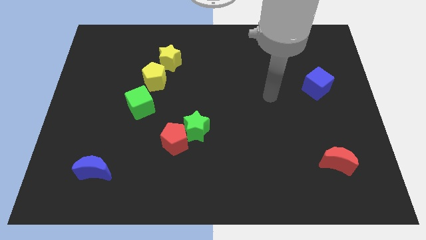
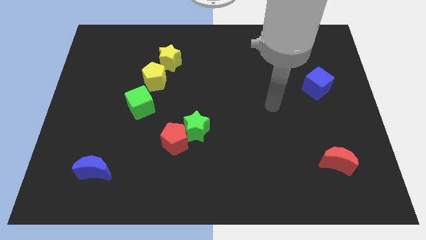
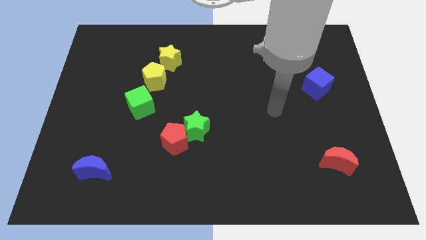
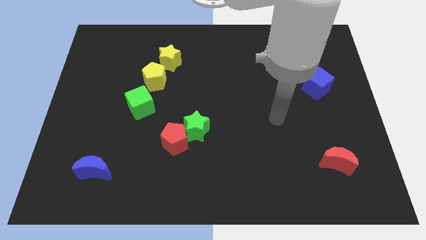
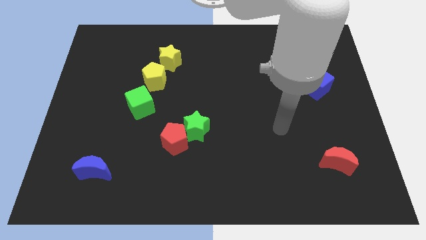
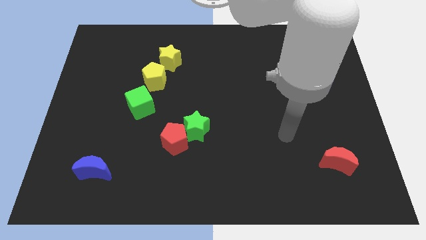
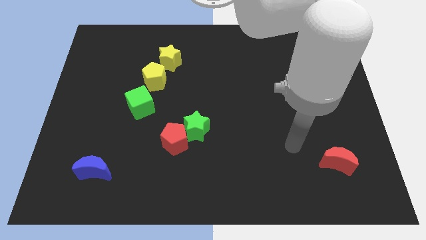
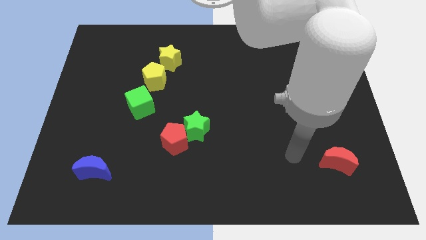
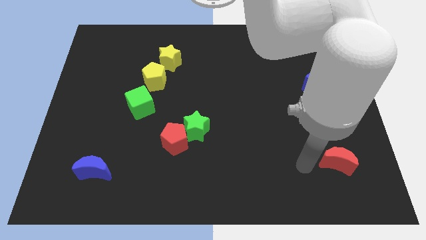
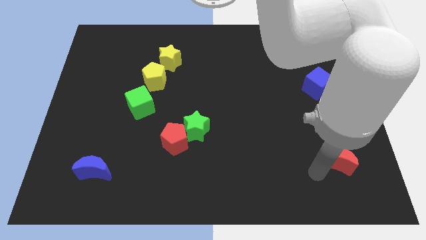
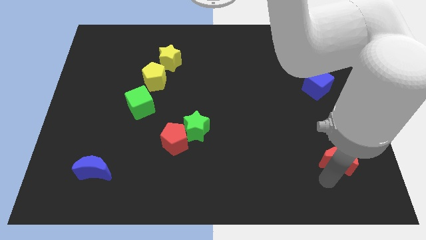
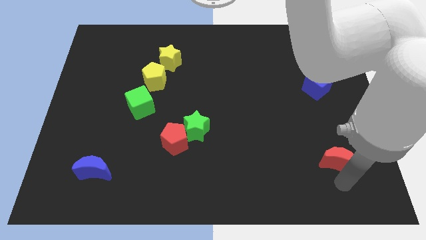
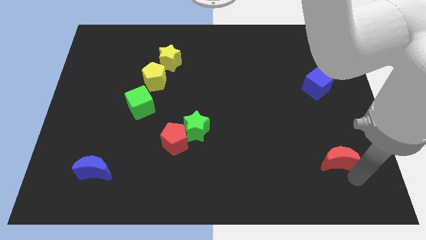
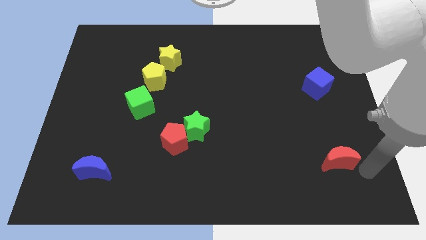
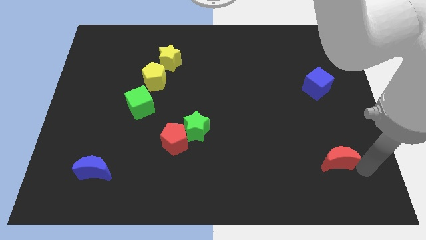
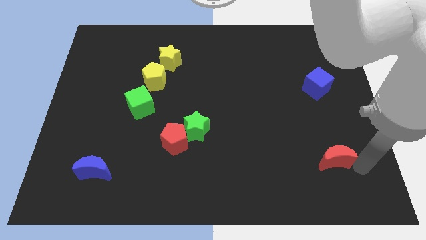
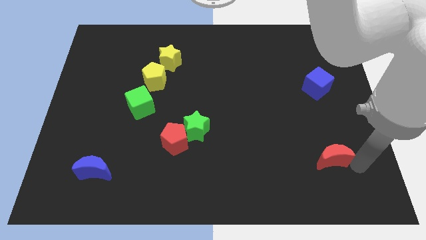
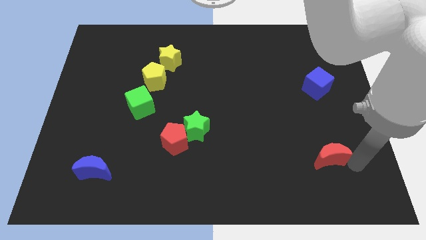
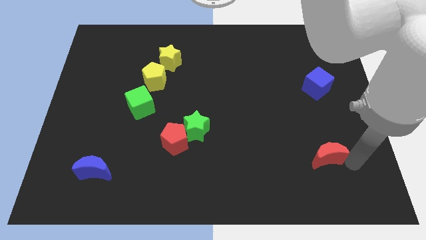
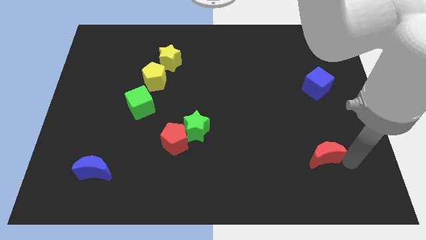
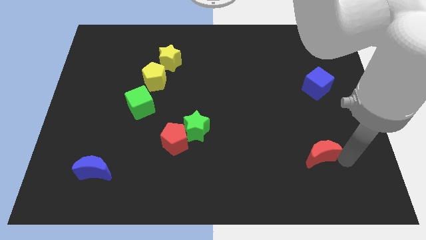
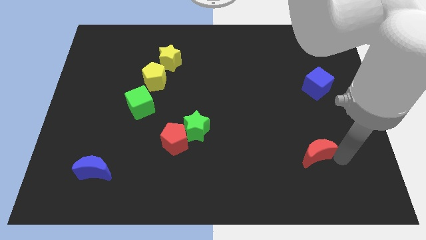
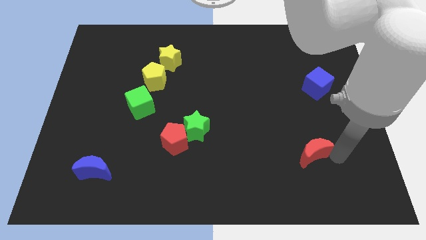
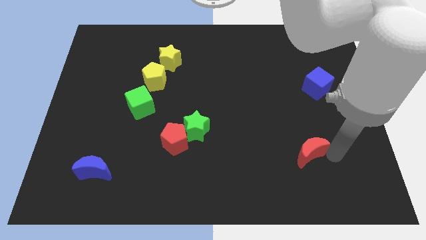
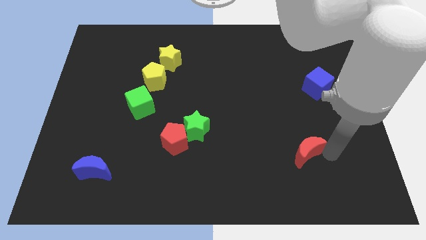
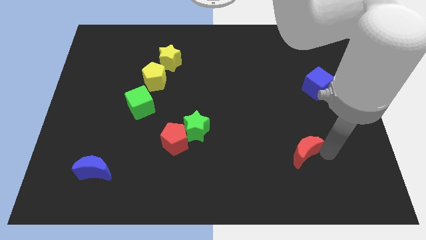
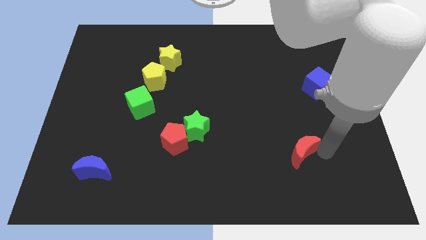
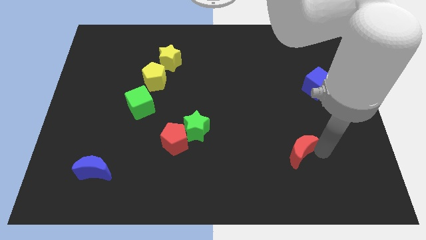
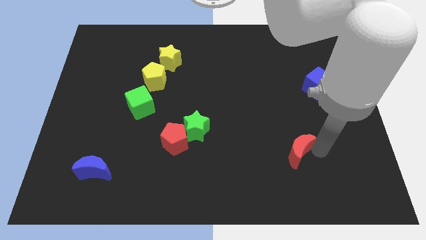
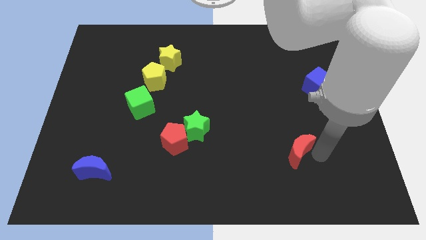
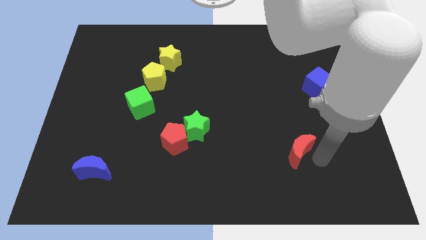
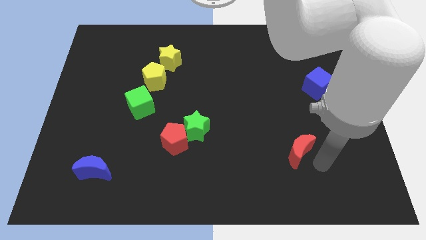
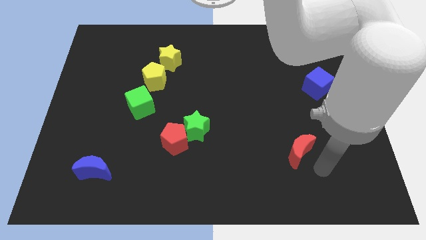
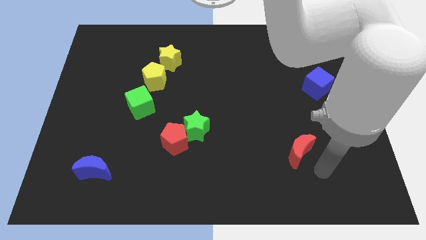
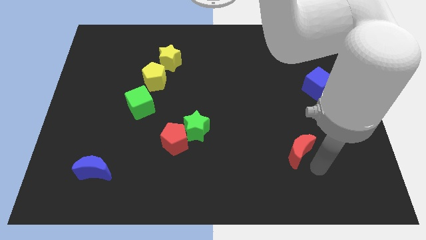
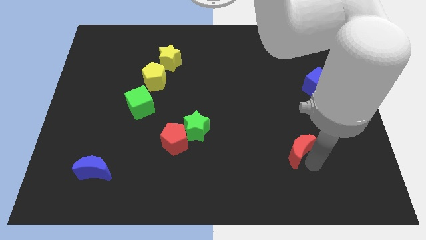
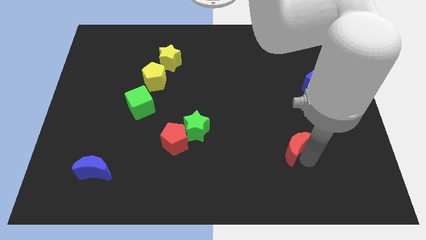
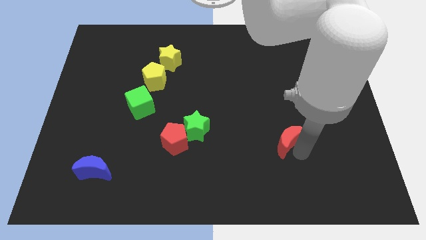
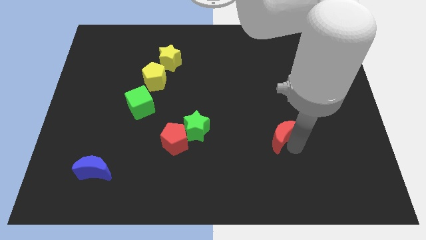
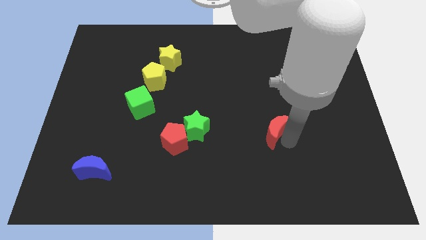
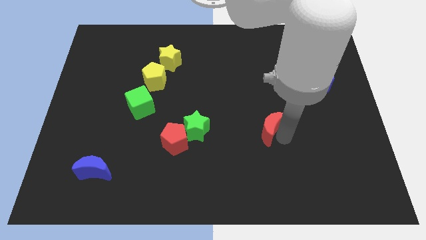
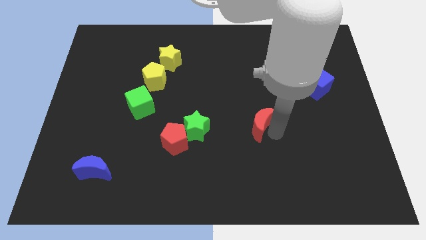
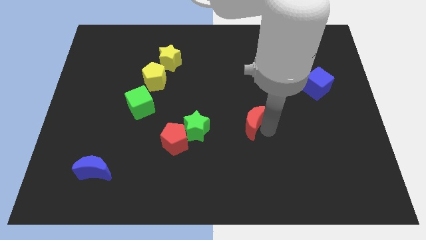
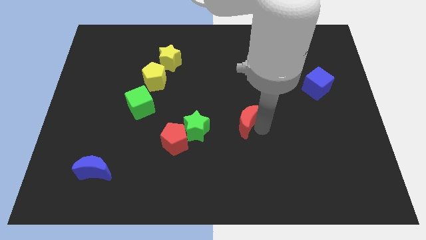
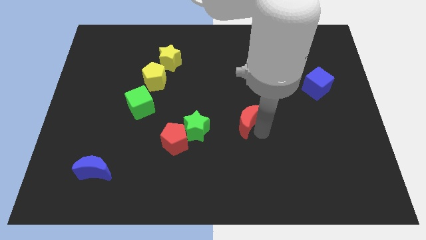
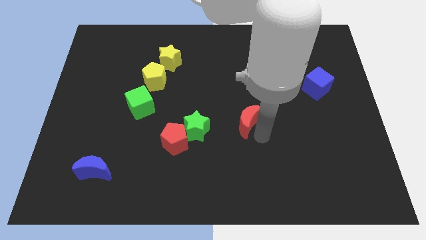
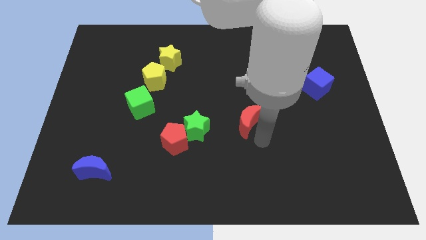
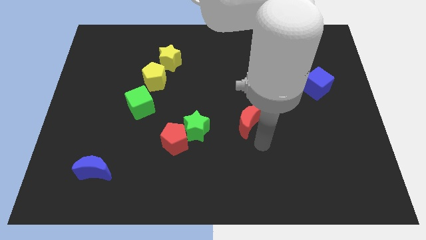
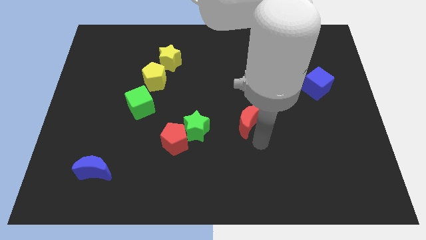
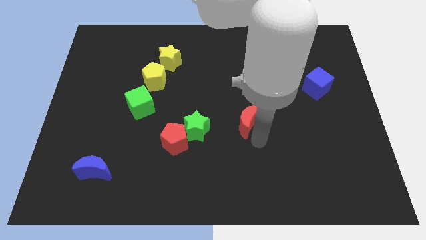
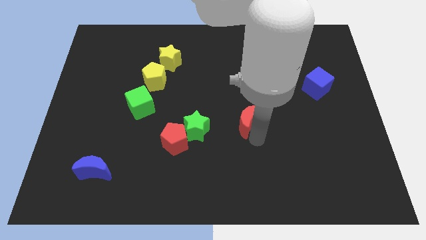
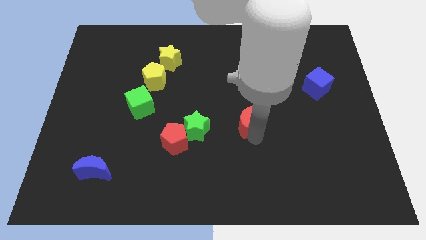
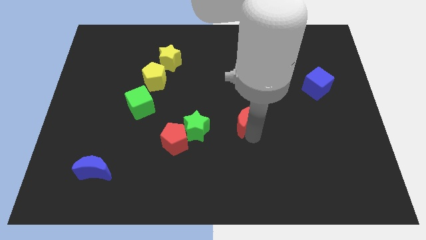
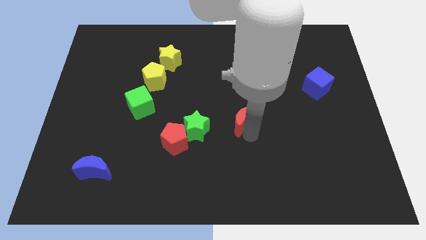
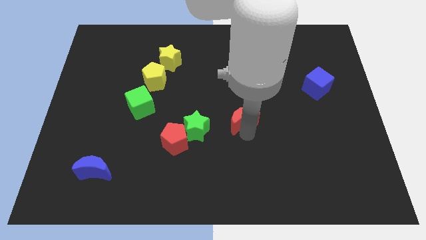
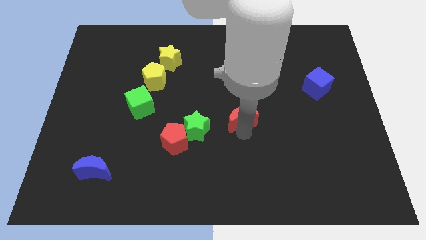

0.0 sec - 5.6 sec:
move the red moon diagonally up and to the left

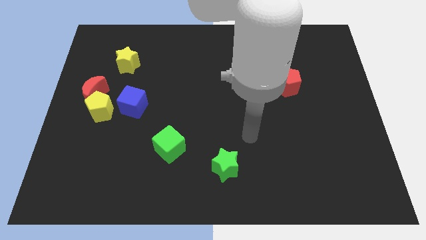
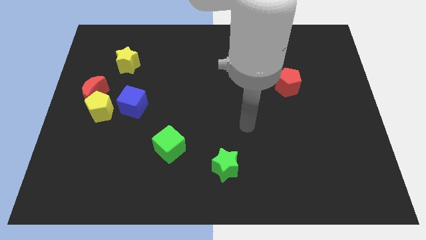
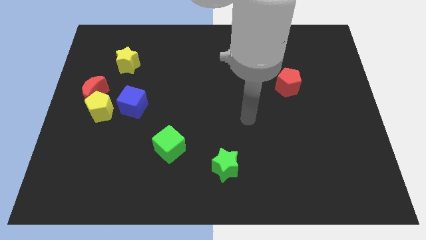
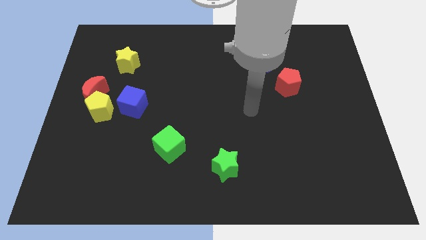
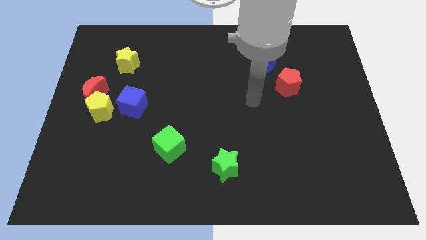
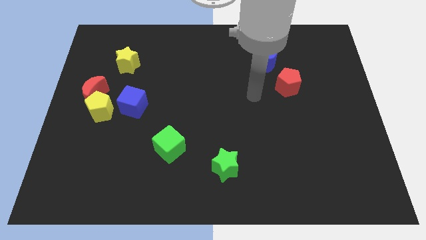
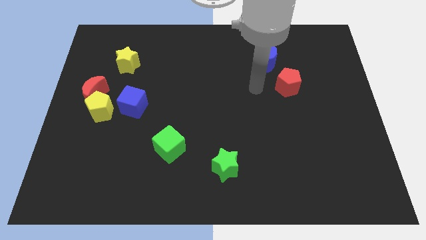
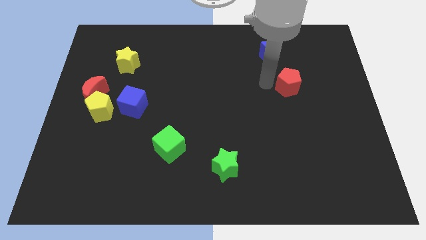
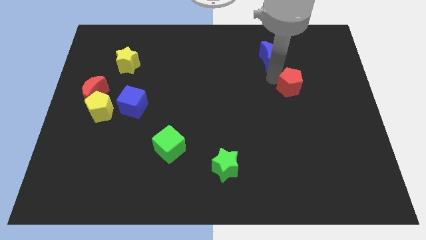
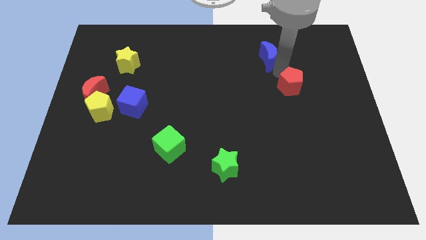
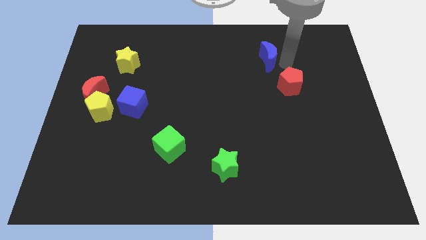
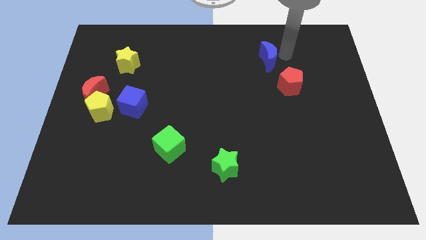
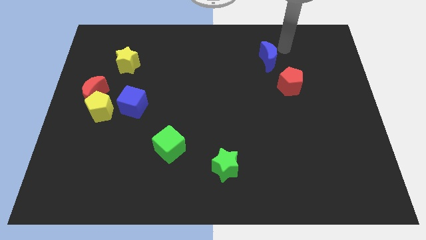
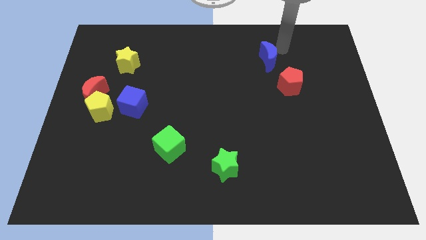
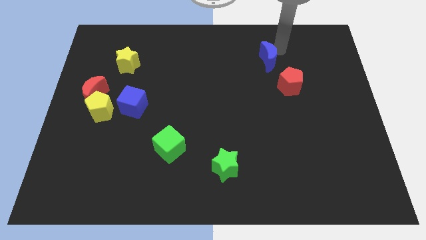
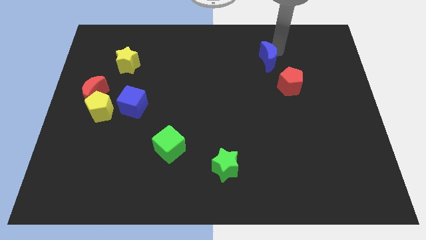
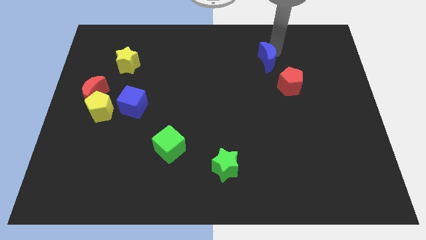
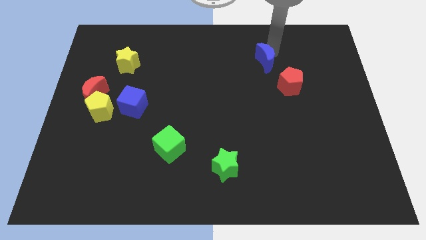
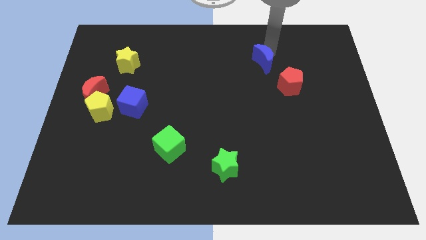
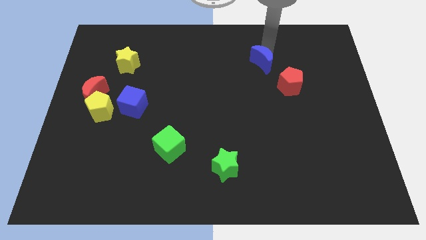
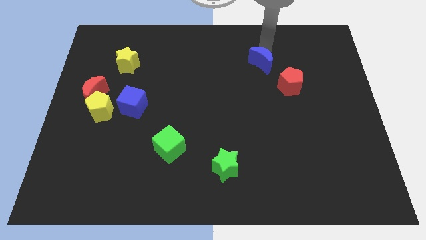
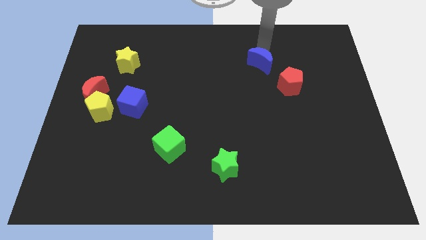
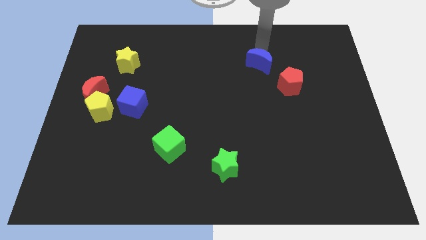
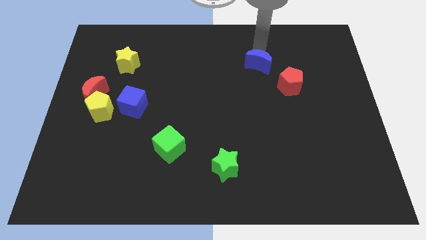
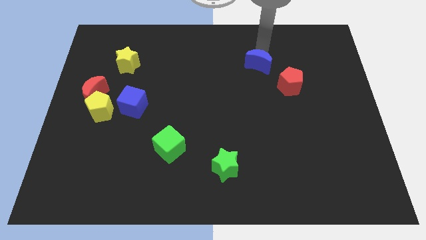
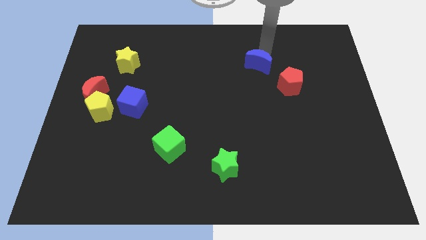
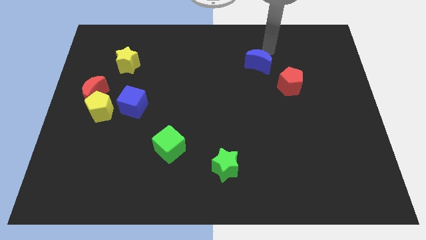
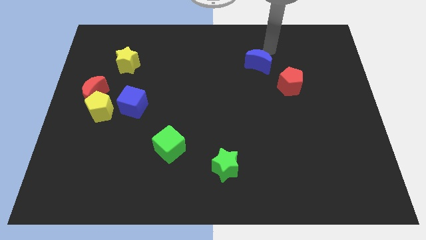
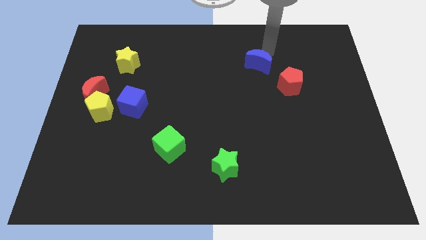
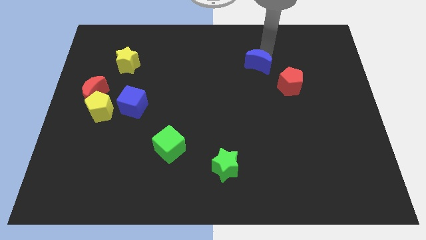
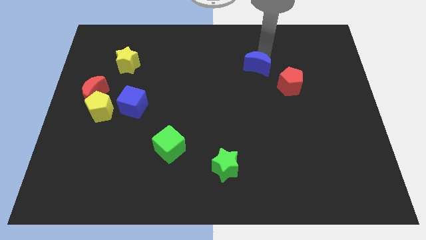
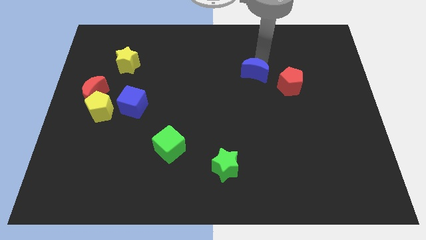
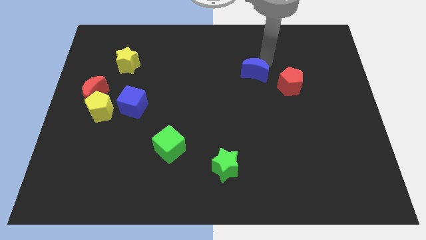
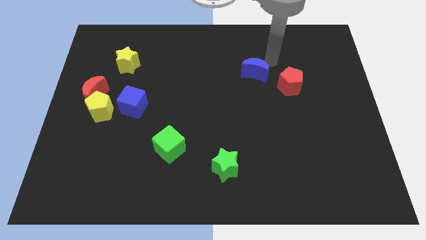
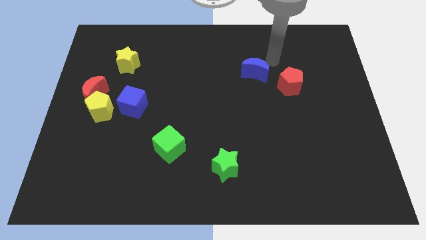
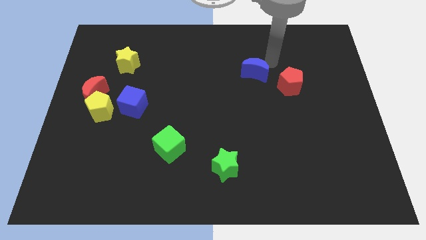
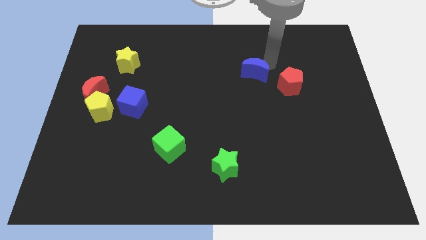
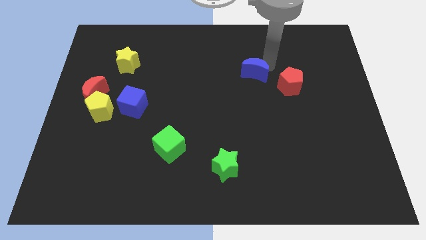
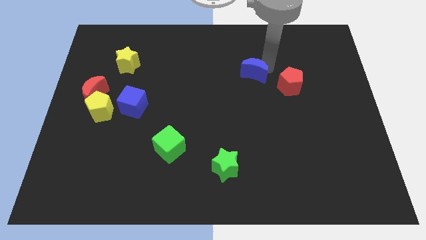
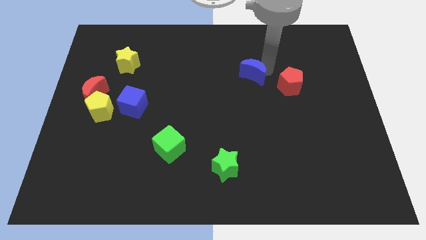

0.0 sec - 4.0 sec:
move the blue moon downwards and then left a little bit
